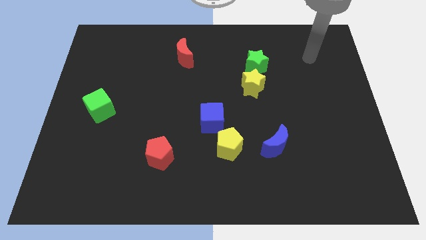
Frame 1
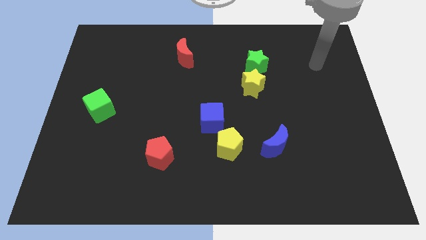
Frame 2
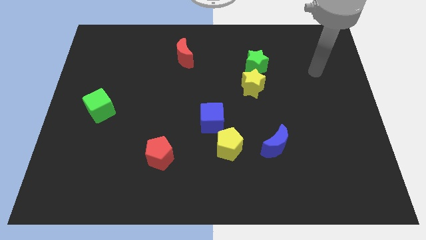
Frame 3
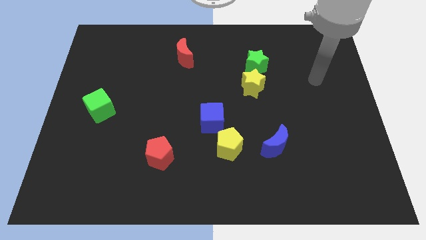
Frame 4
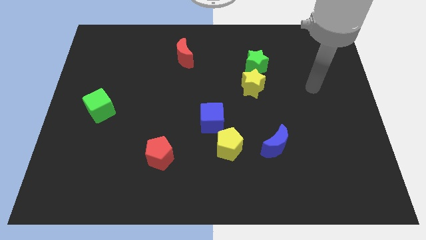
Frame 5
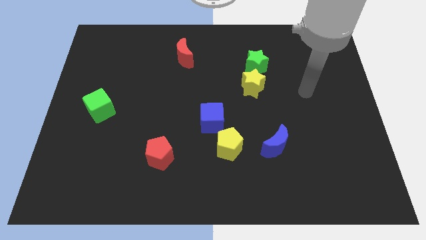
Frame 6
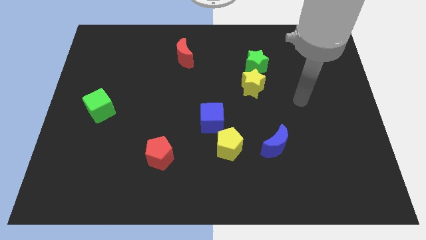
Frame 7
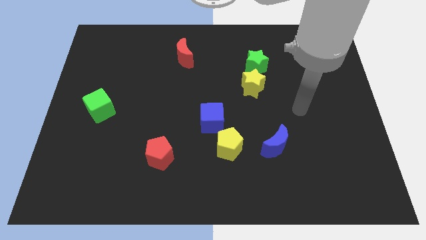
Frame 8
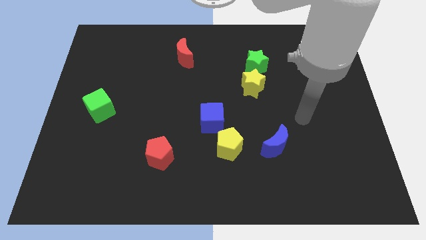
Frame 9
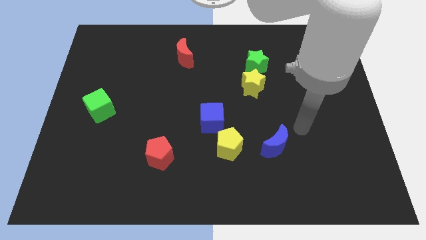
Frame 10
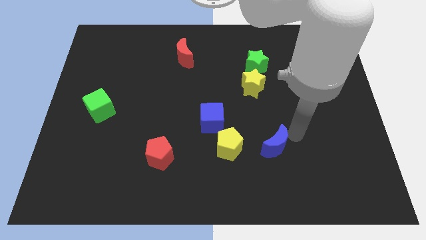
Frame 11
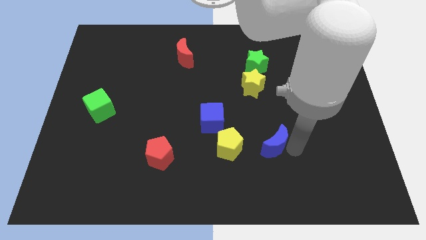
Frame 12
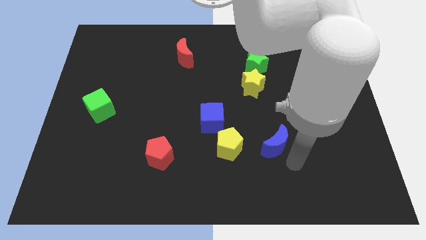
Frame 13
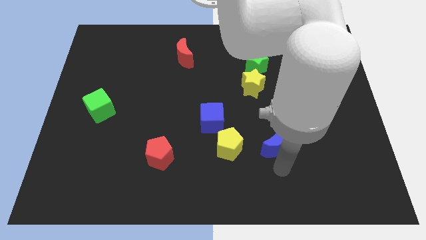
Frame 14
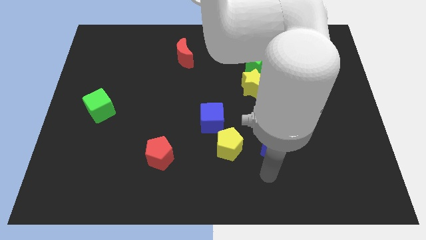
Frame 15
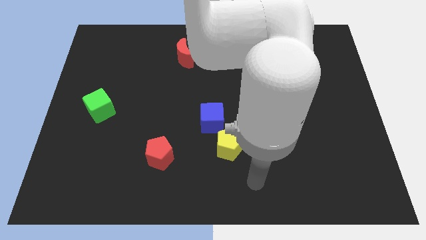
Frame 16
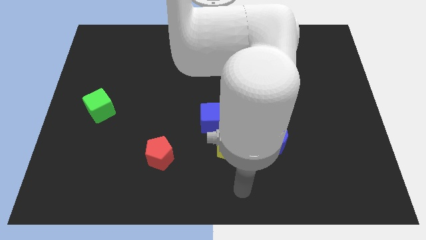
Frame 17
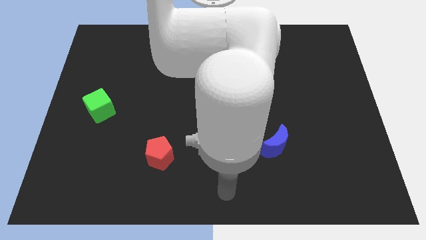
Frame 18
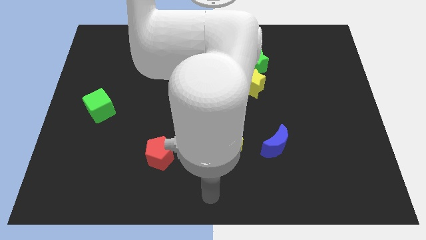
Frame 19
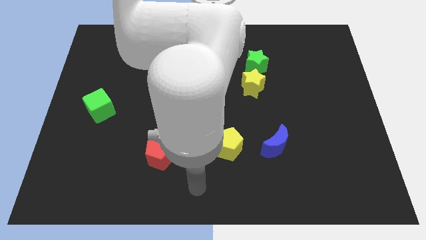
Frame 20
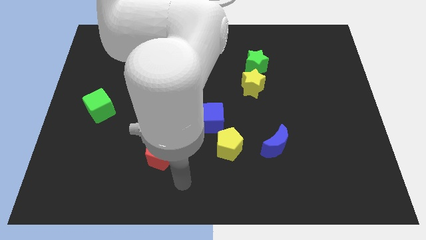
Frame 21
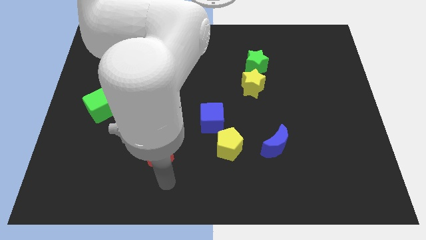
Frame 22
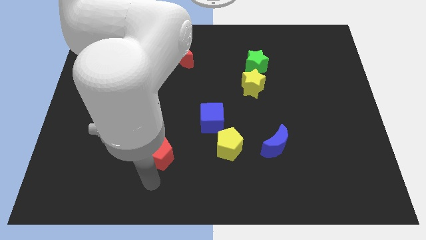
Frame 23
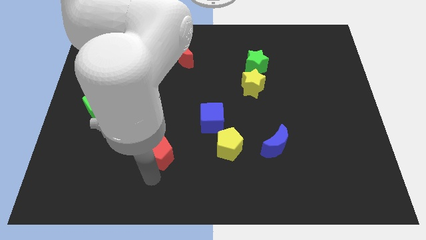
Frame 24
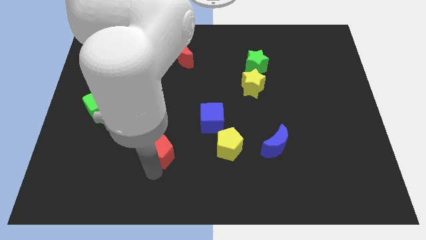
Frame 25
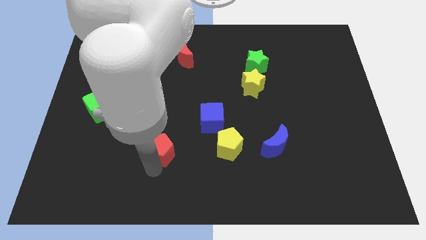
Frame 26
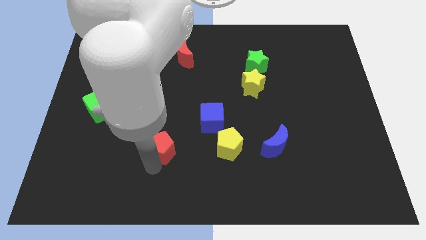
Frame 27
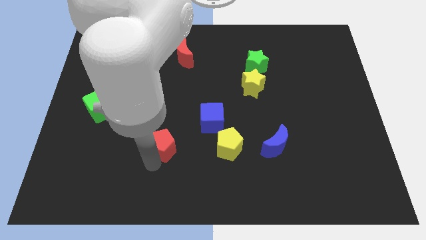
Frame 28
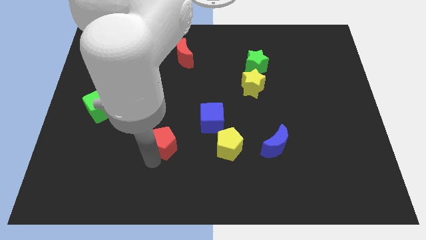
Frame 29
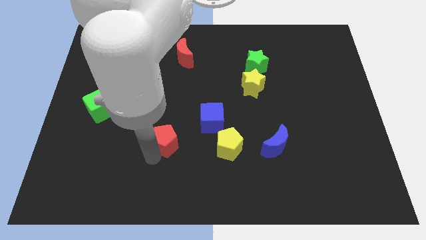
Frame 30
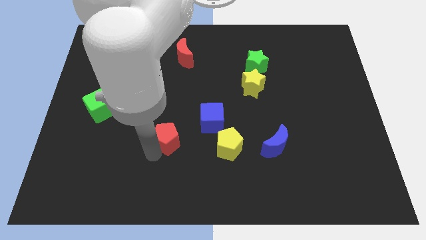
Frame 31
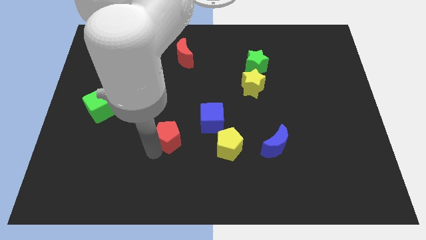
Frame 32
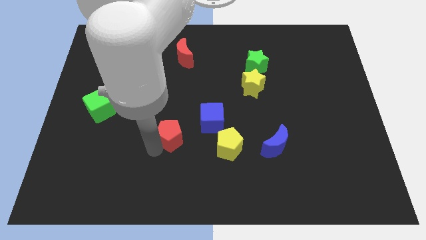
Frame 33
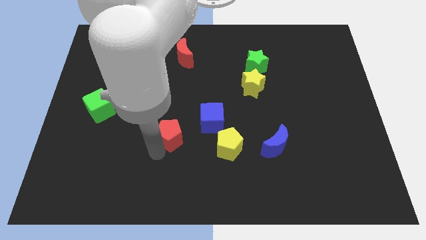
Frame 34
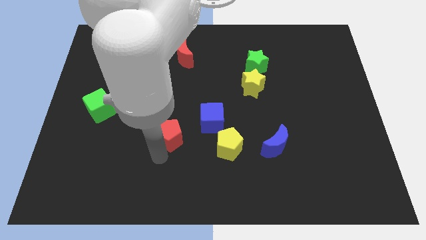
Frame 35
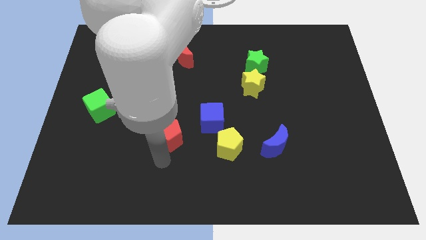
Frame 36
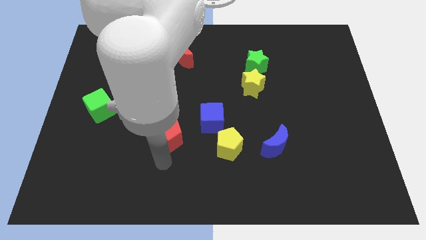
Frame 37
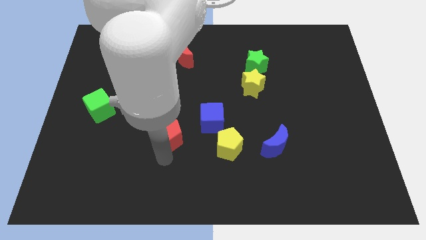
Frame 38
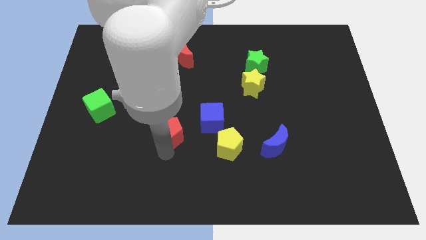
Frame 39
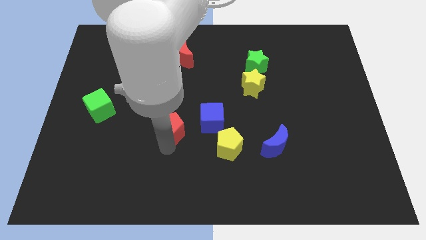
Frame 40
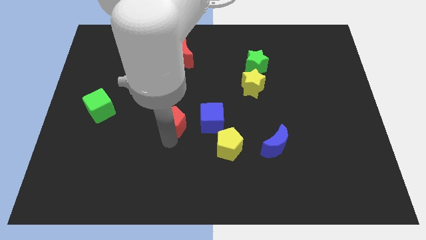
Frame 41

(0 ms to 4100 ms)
slightly slide the red pentagon up

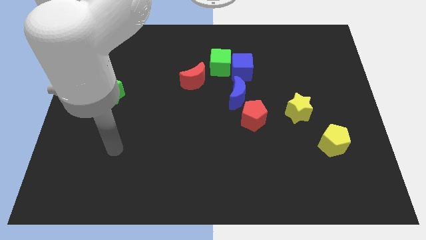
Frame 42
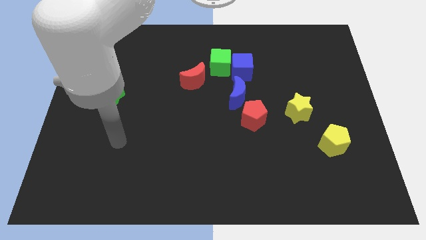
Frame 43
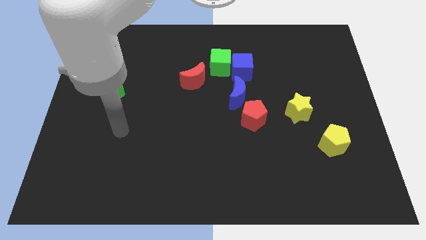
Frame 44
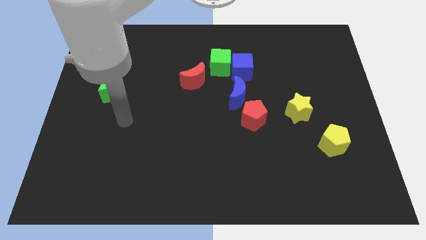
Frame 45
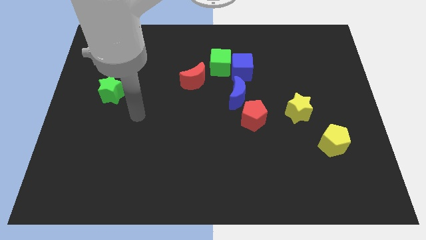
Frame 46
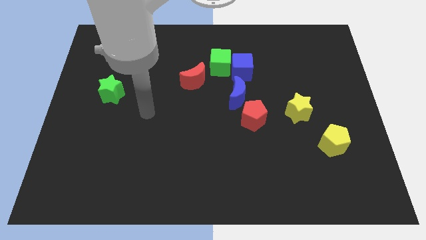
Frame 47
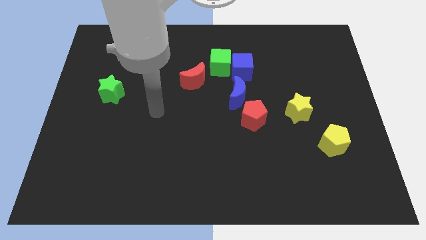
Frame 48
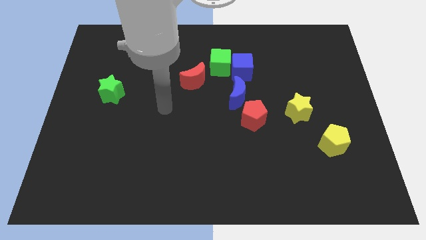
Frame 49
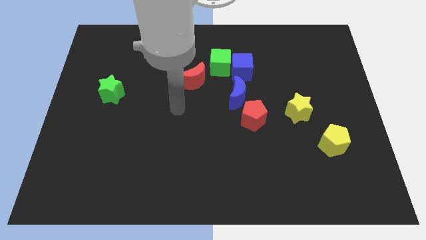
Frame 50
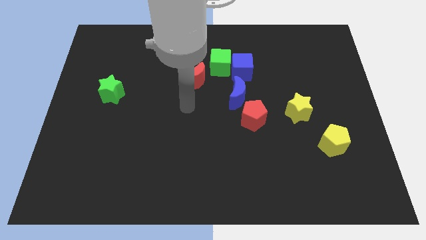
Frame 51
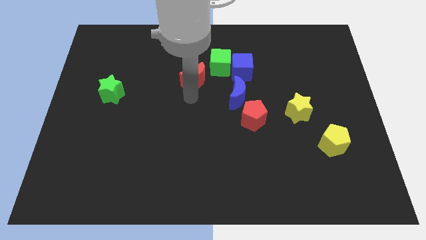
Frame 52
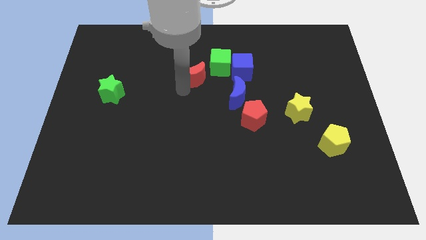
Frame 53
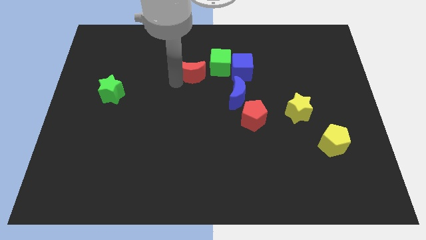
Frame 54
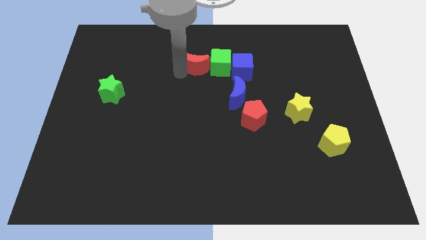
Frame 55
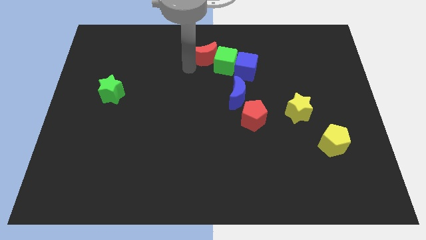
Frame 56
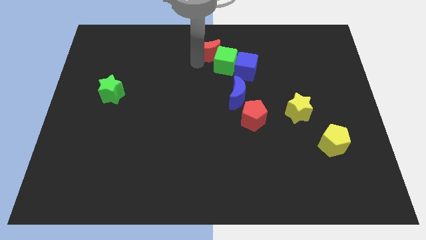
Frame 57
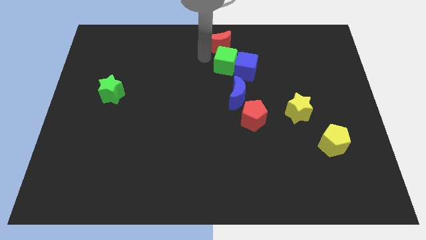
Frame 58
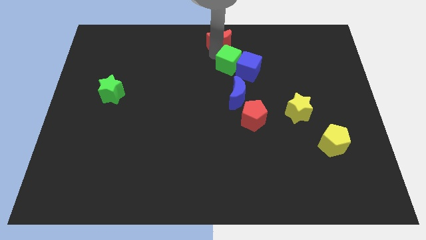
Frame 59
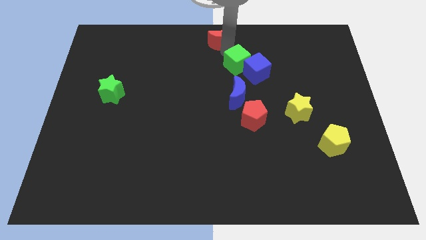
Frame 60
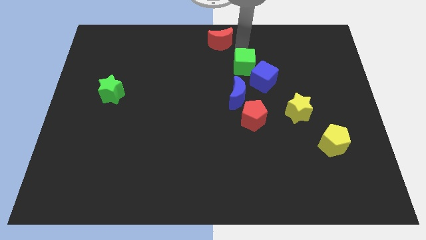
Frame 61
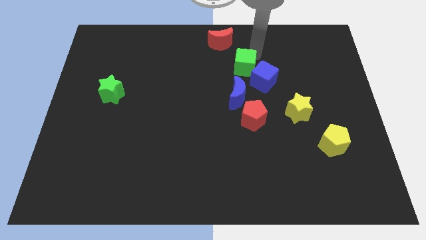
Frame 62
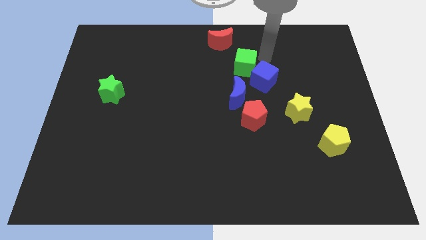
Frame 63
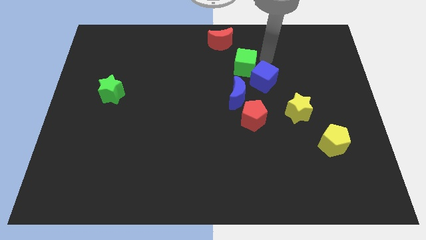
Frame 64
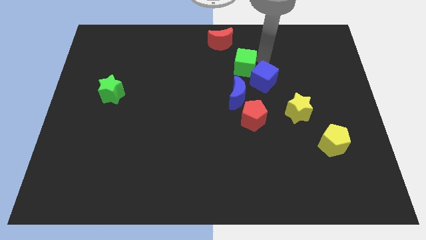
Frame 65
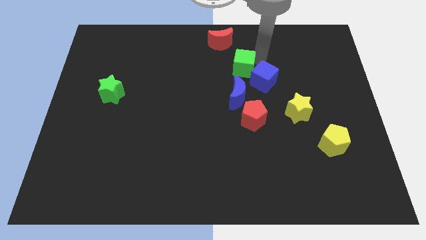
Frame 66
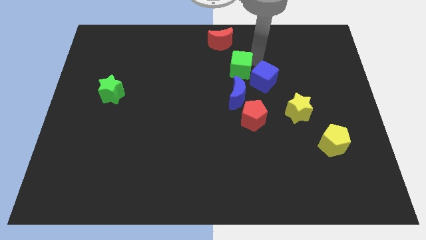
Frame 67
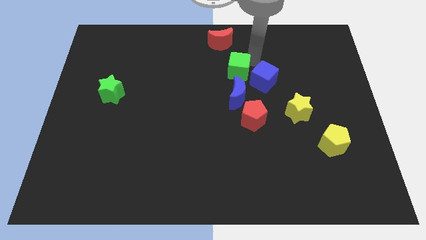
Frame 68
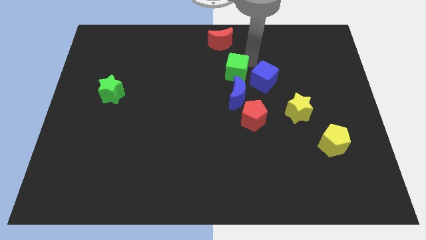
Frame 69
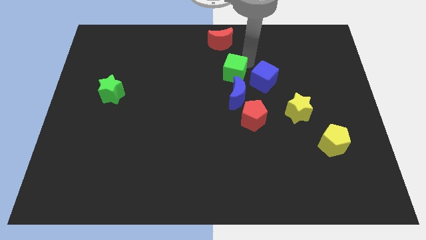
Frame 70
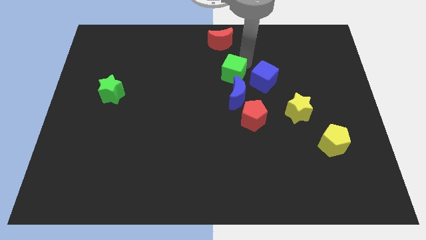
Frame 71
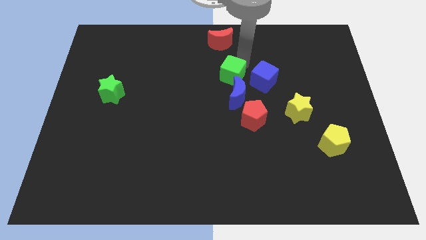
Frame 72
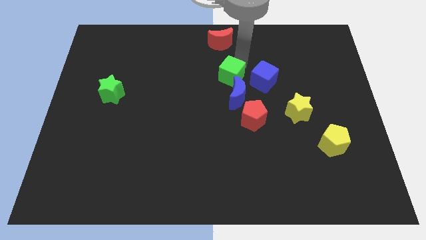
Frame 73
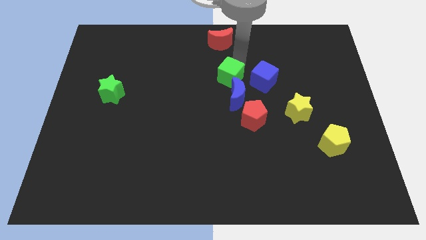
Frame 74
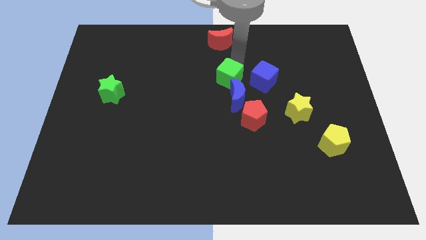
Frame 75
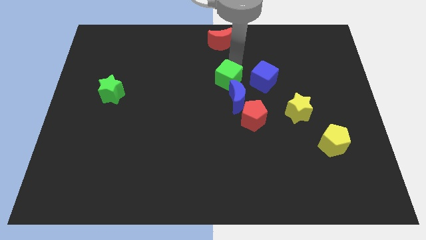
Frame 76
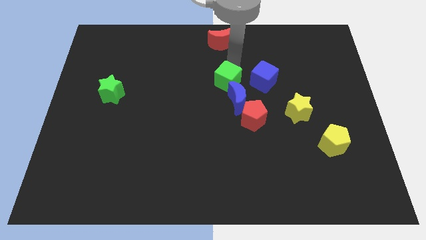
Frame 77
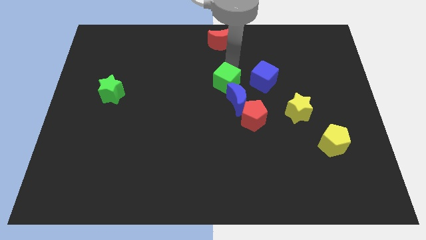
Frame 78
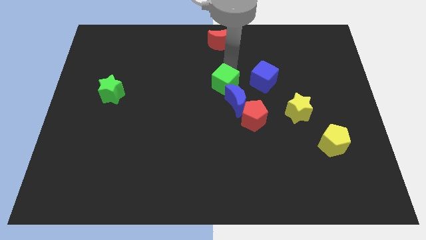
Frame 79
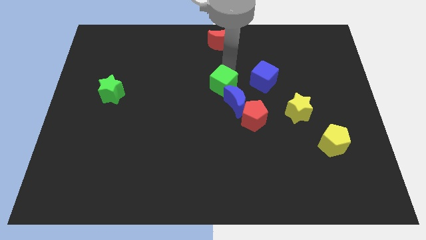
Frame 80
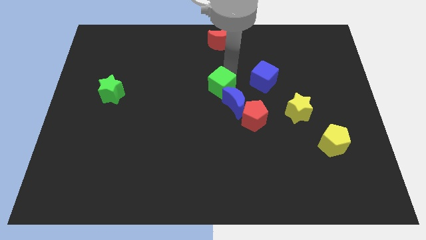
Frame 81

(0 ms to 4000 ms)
slightly push the green cube downwards
